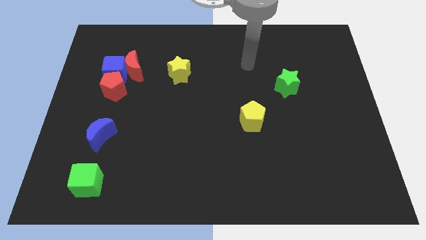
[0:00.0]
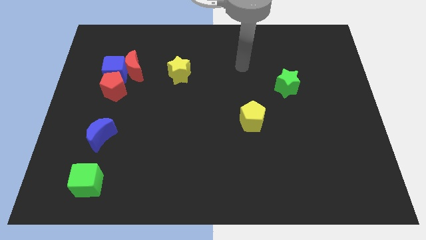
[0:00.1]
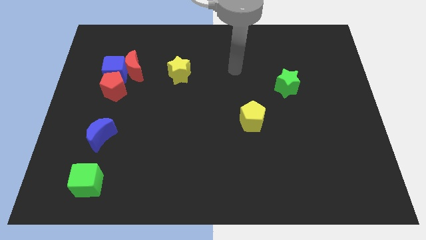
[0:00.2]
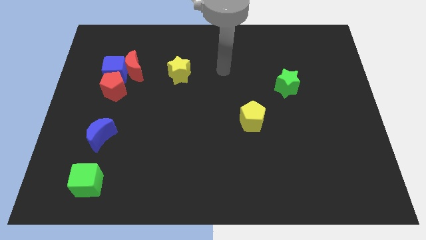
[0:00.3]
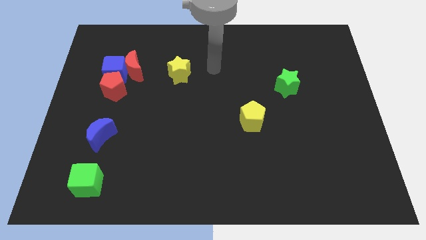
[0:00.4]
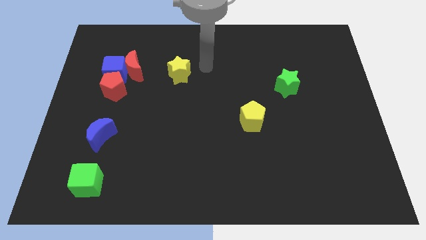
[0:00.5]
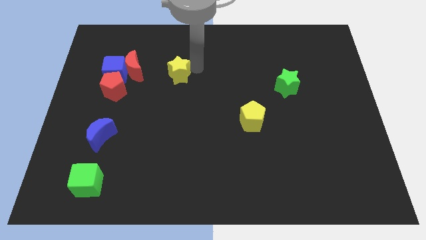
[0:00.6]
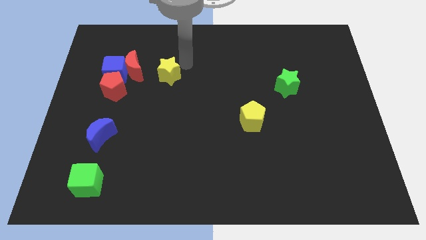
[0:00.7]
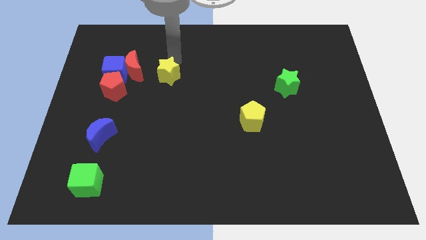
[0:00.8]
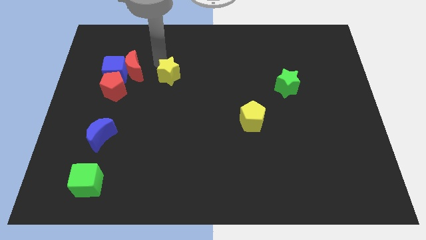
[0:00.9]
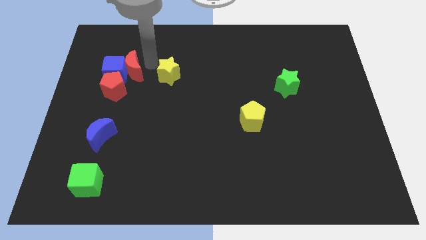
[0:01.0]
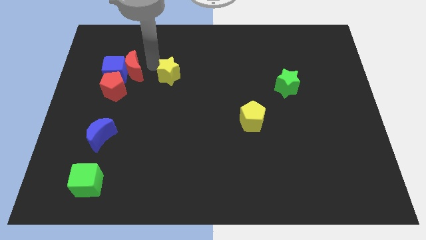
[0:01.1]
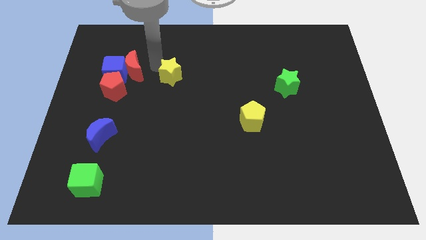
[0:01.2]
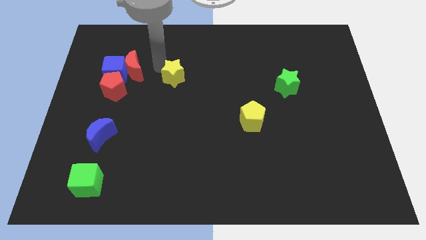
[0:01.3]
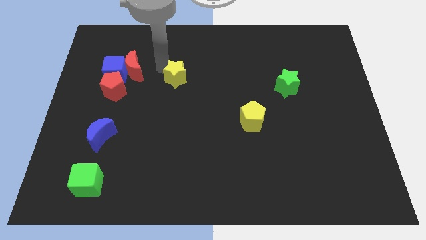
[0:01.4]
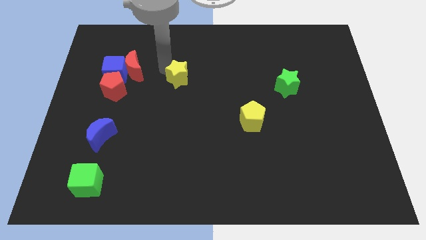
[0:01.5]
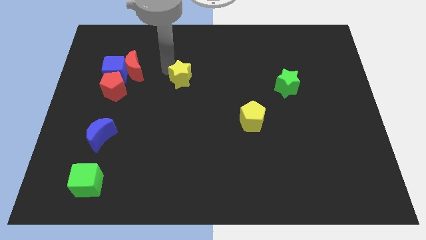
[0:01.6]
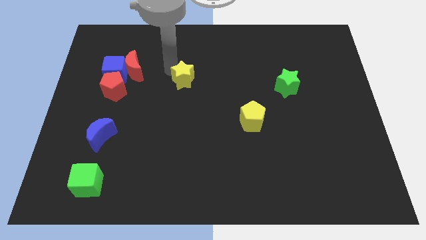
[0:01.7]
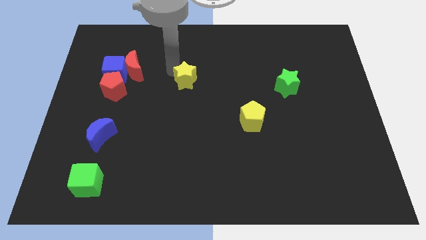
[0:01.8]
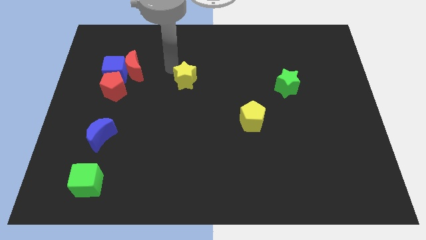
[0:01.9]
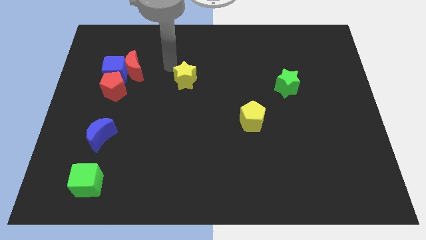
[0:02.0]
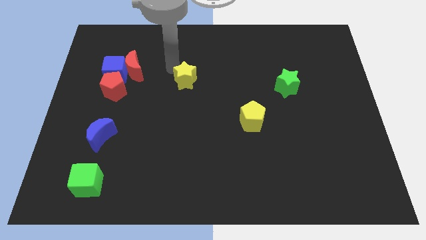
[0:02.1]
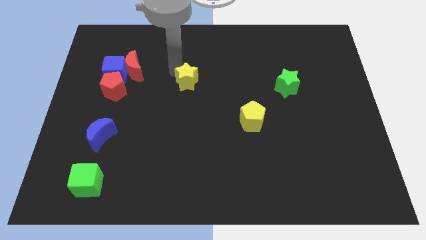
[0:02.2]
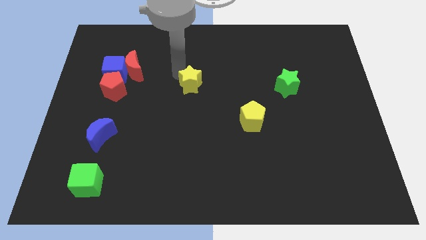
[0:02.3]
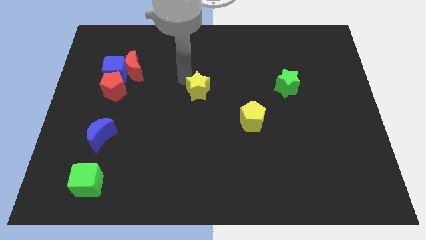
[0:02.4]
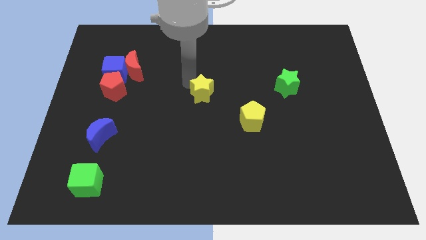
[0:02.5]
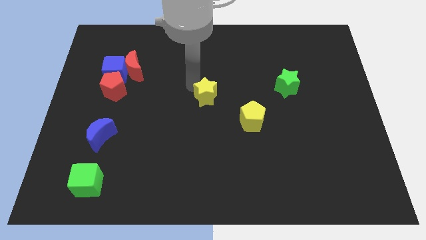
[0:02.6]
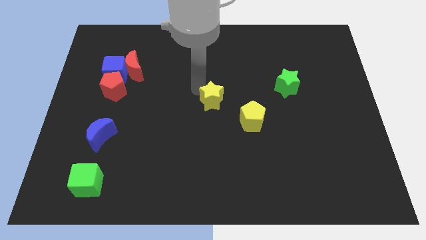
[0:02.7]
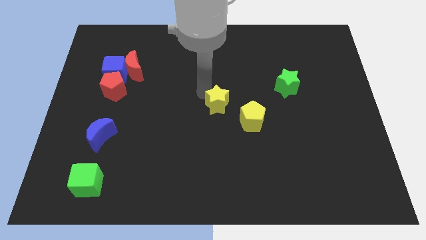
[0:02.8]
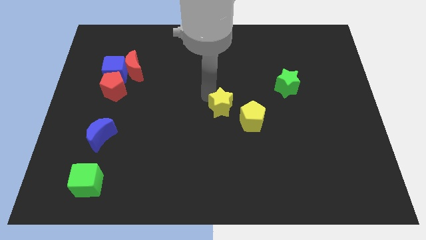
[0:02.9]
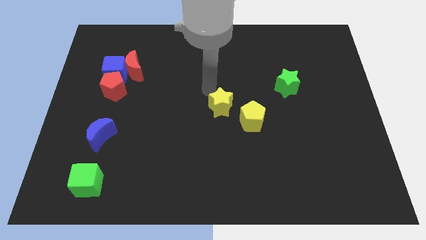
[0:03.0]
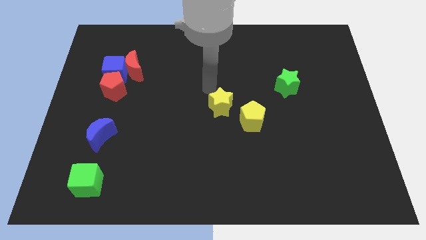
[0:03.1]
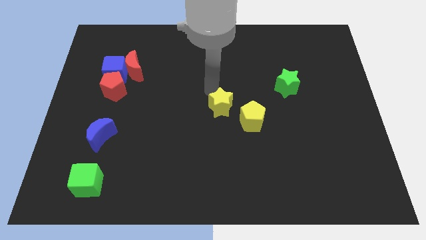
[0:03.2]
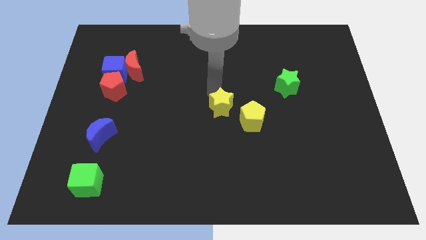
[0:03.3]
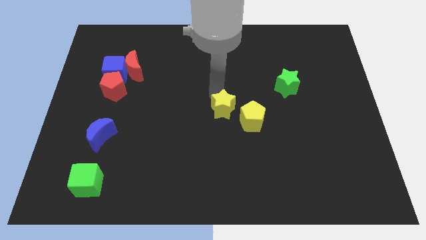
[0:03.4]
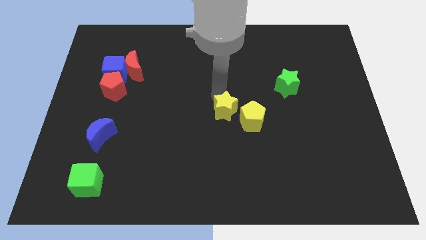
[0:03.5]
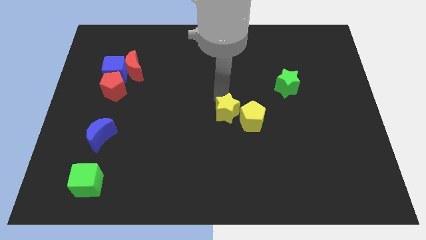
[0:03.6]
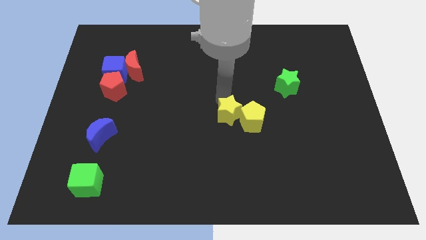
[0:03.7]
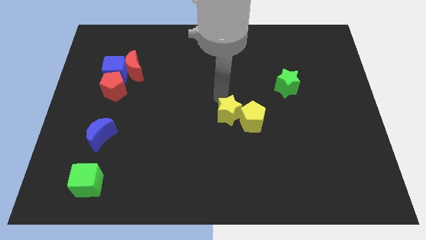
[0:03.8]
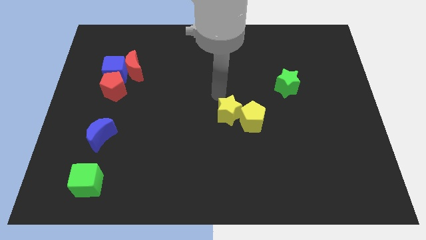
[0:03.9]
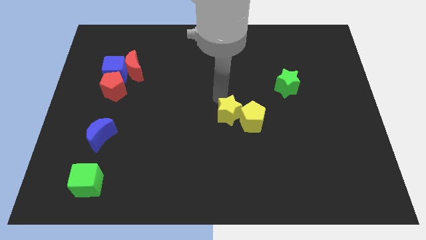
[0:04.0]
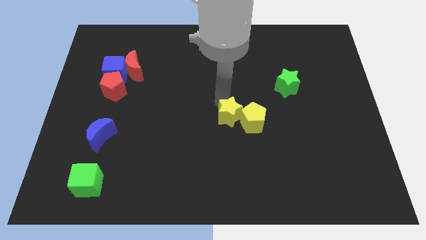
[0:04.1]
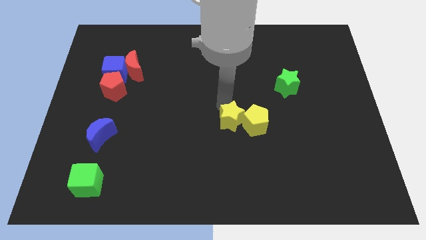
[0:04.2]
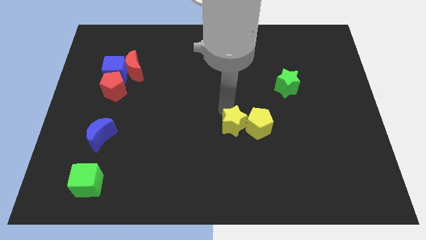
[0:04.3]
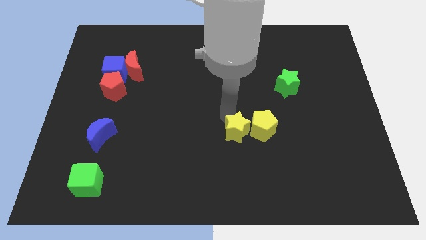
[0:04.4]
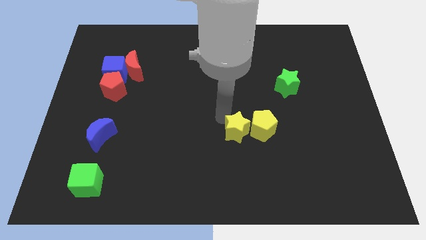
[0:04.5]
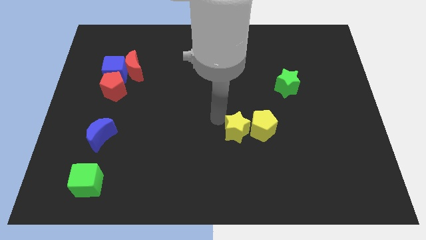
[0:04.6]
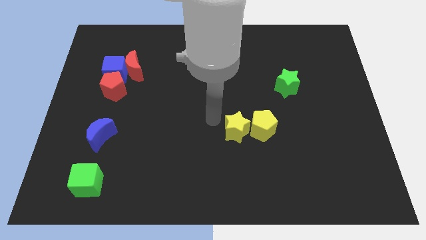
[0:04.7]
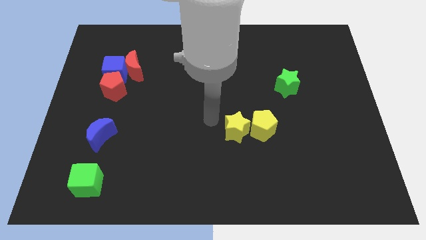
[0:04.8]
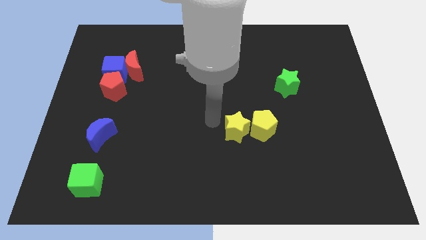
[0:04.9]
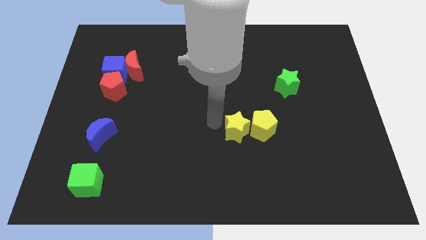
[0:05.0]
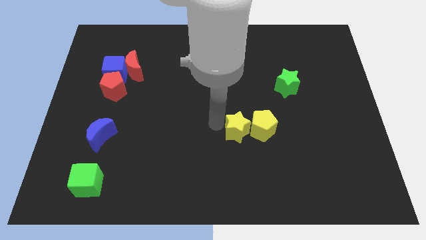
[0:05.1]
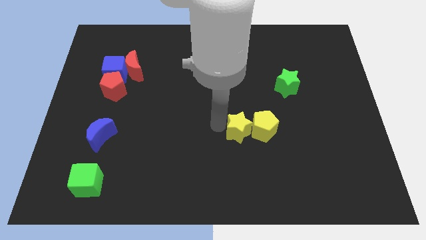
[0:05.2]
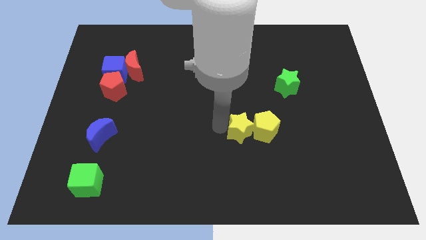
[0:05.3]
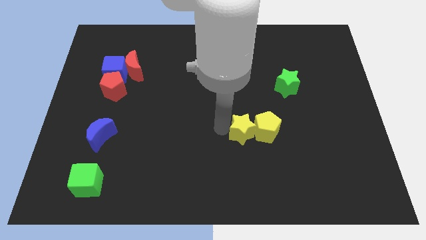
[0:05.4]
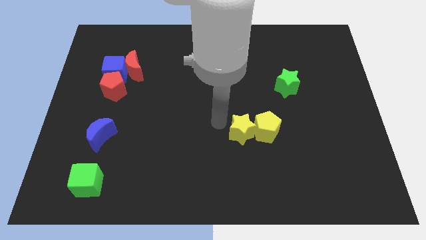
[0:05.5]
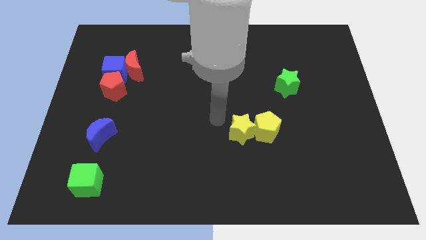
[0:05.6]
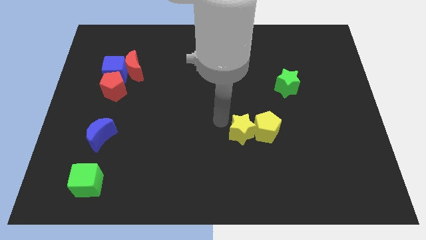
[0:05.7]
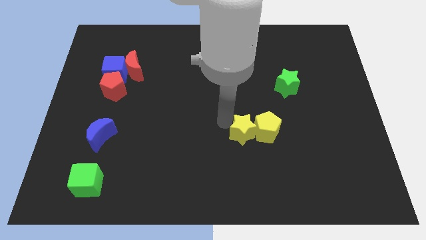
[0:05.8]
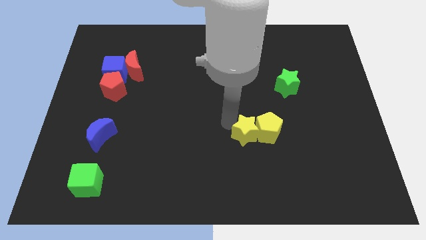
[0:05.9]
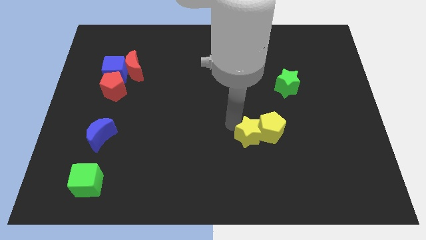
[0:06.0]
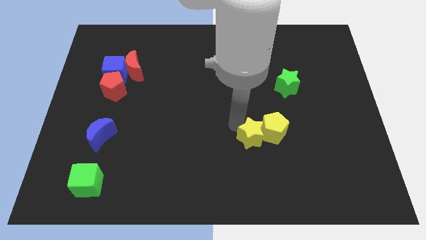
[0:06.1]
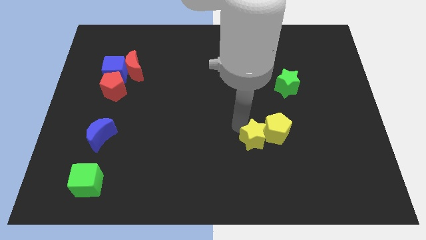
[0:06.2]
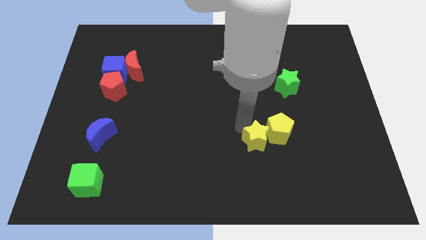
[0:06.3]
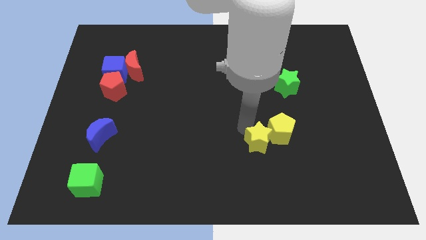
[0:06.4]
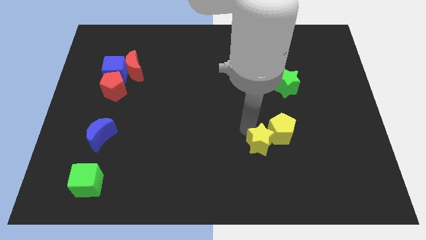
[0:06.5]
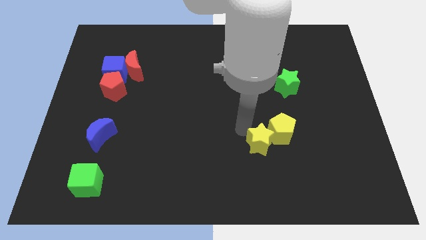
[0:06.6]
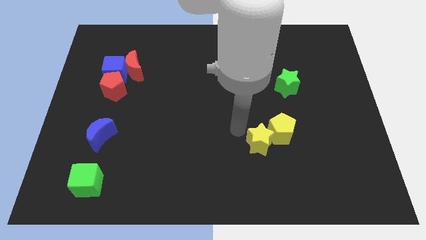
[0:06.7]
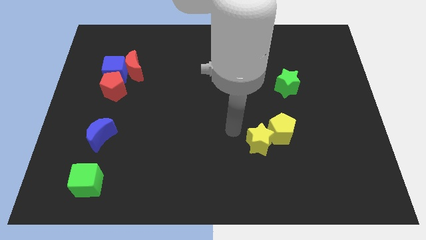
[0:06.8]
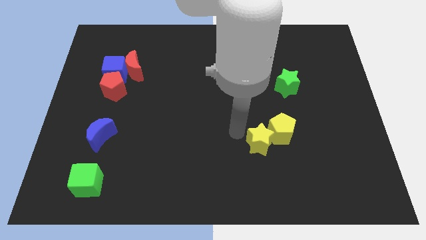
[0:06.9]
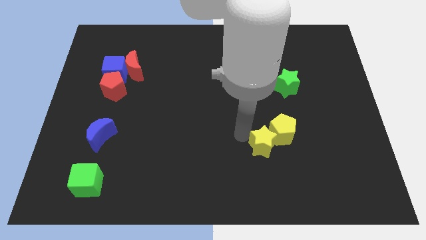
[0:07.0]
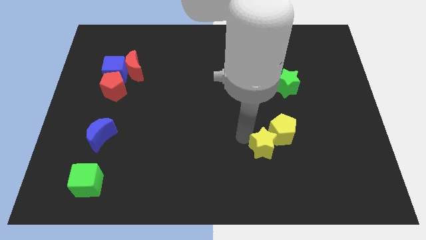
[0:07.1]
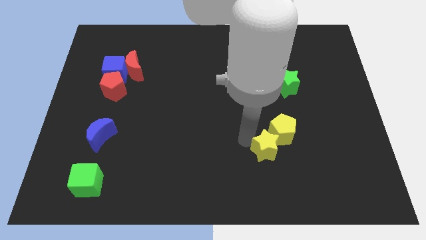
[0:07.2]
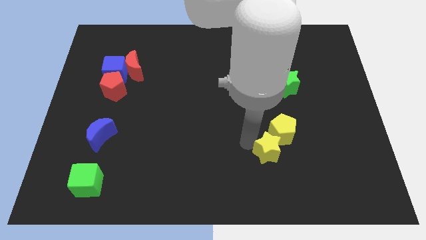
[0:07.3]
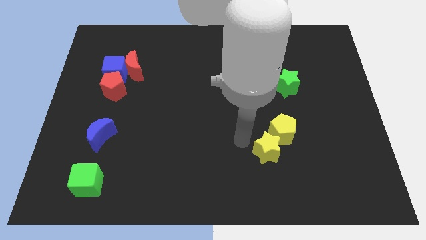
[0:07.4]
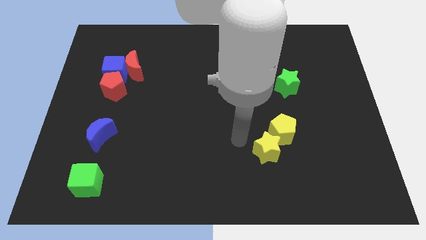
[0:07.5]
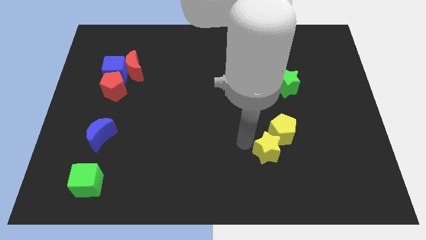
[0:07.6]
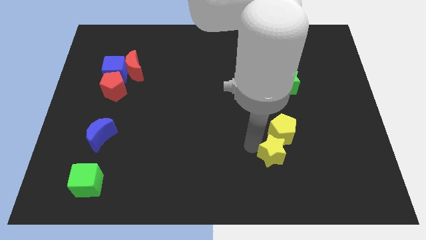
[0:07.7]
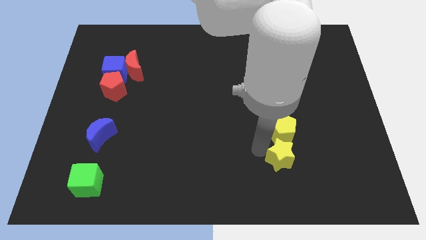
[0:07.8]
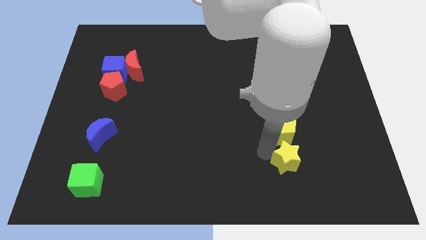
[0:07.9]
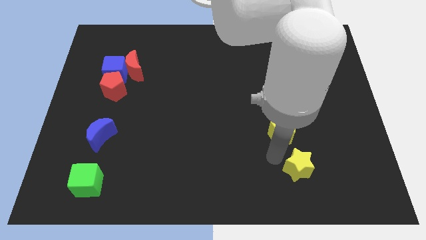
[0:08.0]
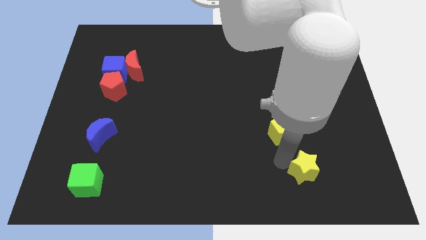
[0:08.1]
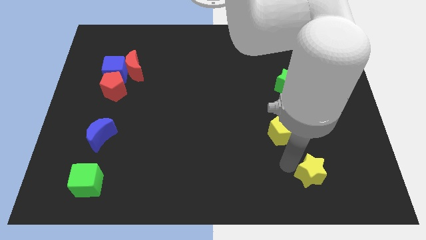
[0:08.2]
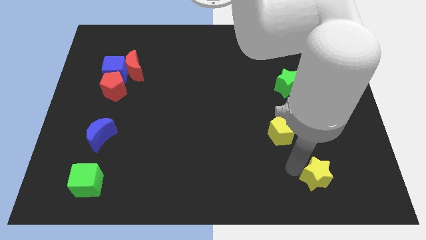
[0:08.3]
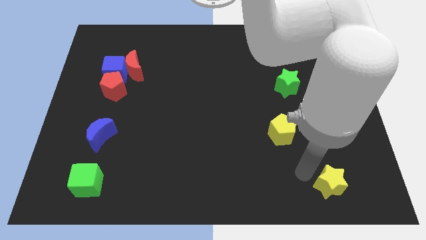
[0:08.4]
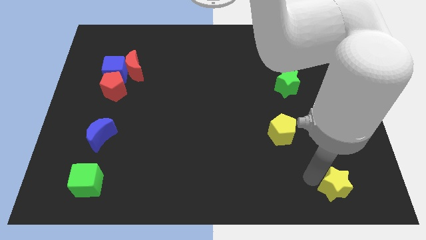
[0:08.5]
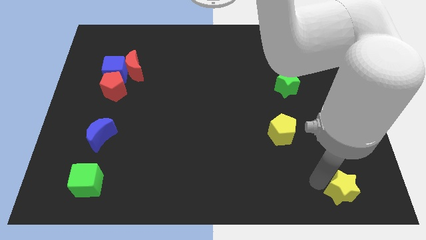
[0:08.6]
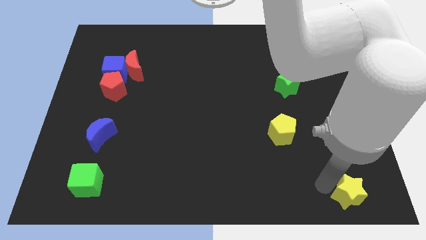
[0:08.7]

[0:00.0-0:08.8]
move the yellow star to the bottom right corner
